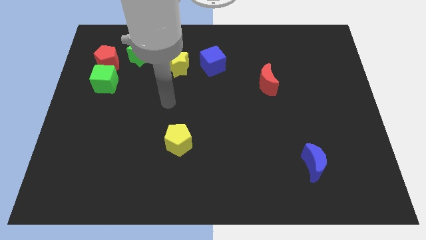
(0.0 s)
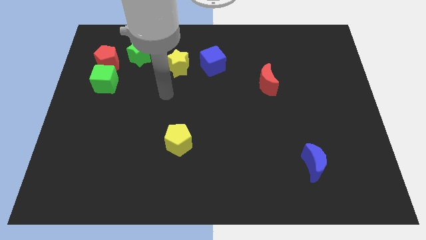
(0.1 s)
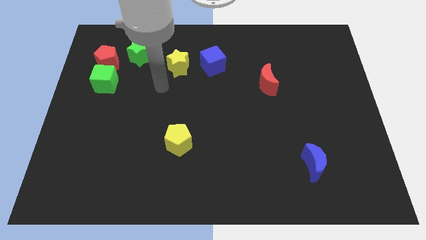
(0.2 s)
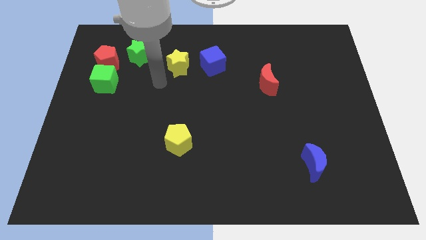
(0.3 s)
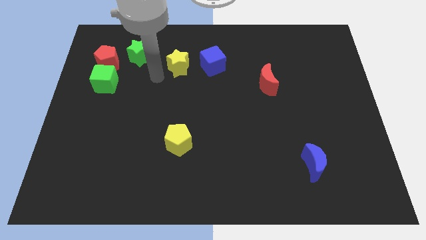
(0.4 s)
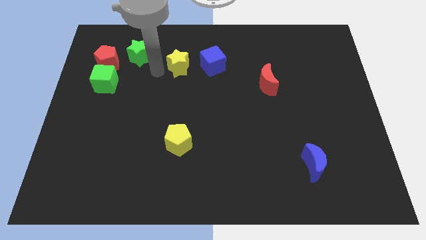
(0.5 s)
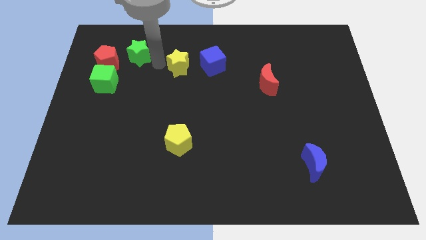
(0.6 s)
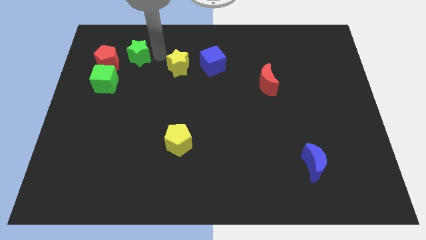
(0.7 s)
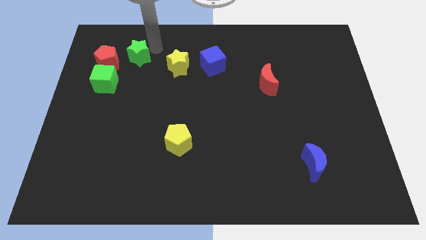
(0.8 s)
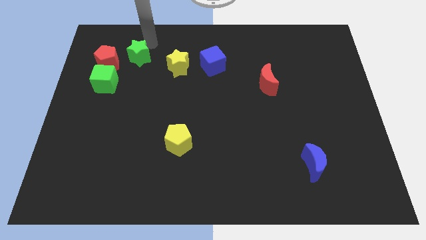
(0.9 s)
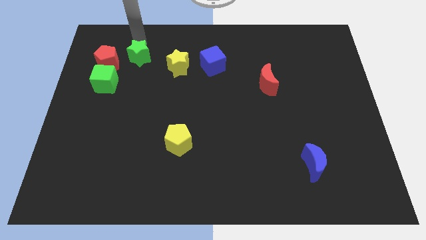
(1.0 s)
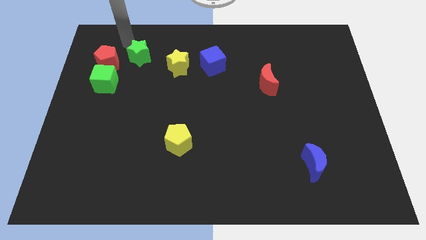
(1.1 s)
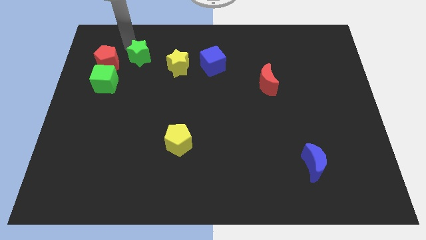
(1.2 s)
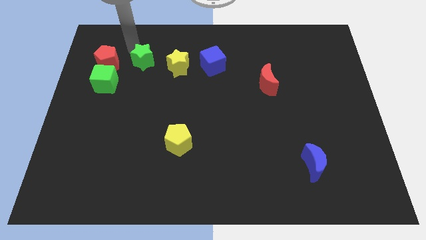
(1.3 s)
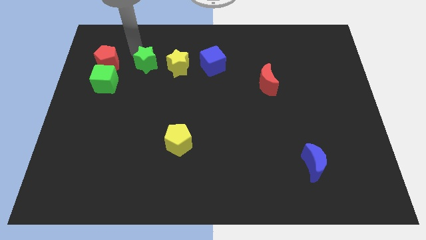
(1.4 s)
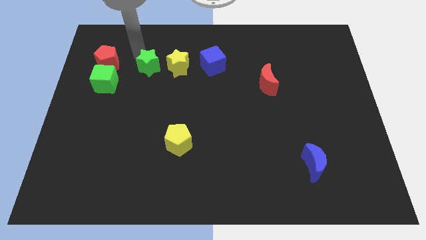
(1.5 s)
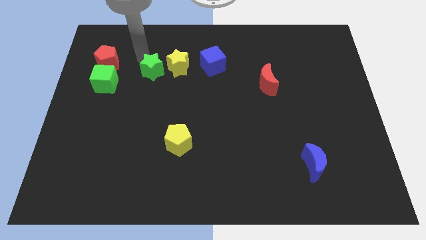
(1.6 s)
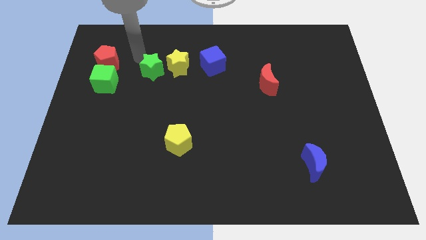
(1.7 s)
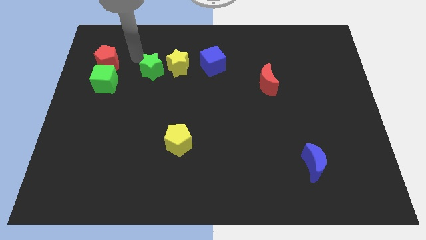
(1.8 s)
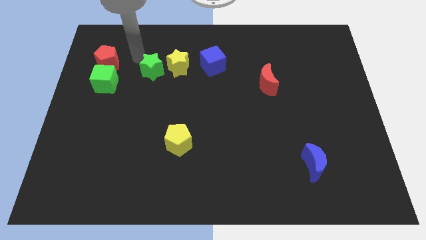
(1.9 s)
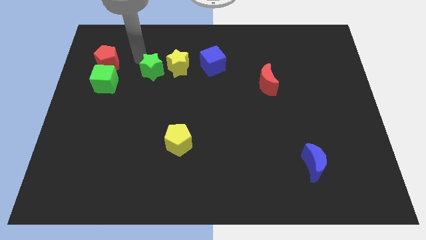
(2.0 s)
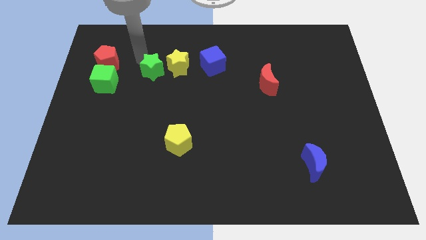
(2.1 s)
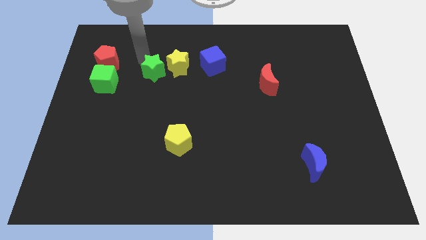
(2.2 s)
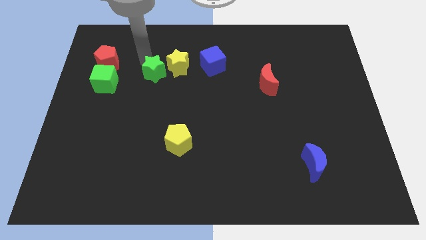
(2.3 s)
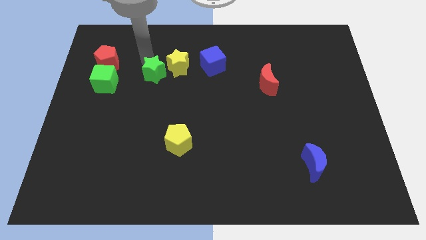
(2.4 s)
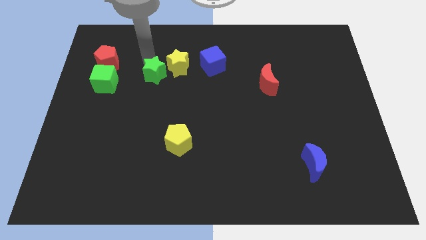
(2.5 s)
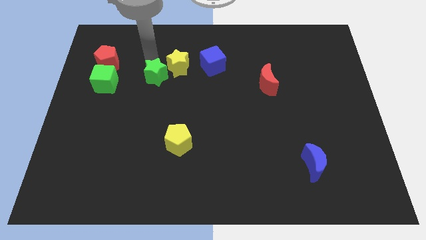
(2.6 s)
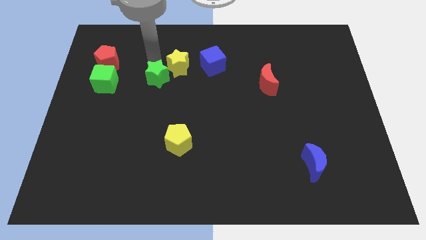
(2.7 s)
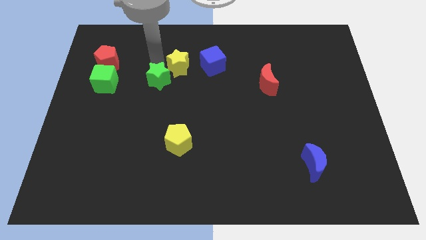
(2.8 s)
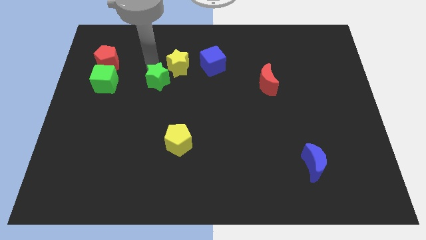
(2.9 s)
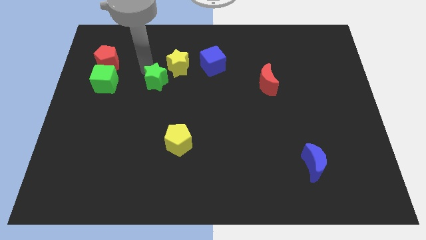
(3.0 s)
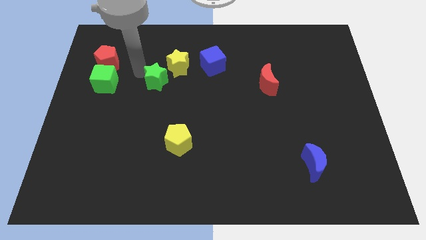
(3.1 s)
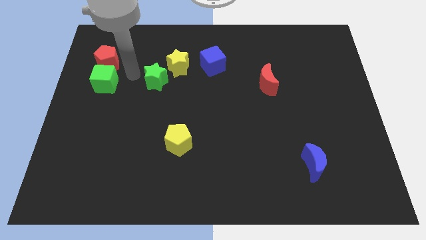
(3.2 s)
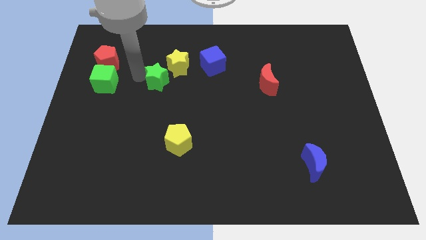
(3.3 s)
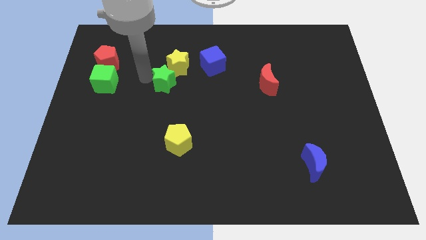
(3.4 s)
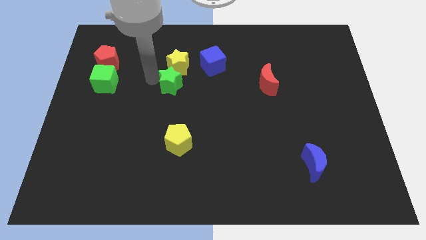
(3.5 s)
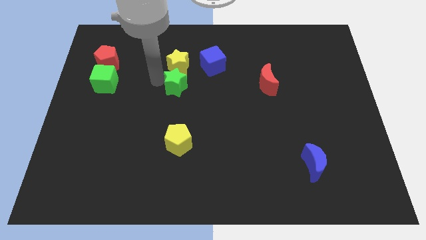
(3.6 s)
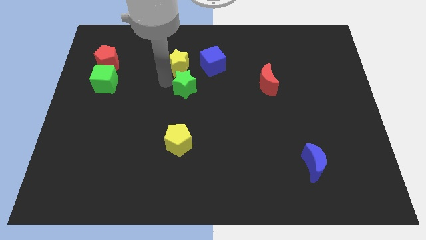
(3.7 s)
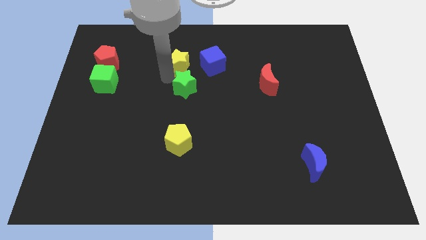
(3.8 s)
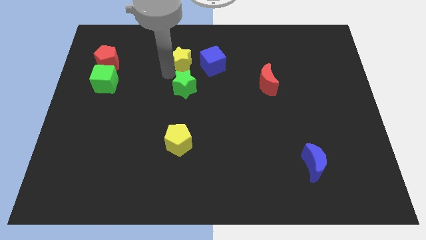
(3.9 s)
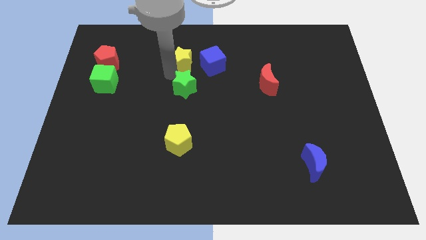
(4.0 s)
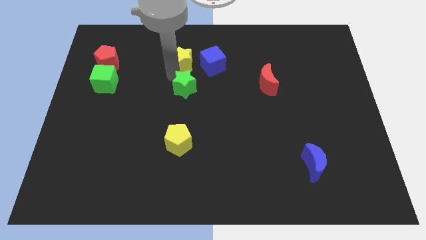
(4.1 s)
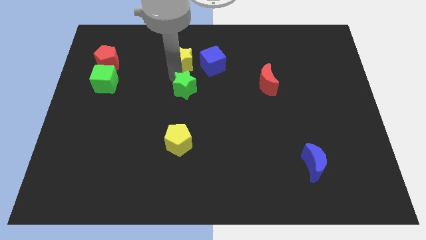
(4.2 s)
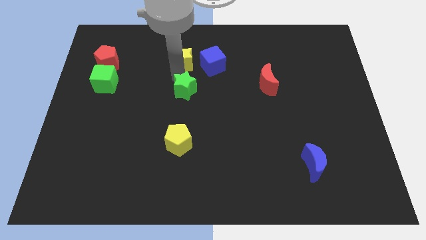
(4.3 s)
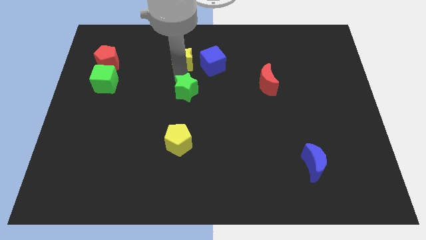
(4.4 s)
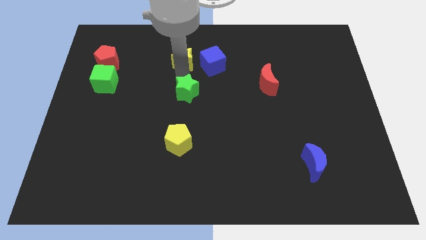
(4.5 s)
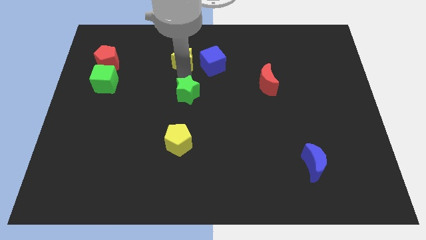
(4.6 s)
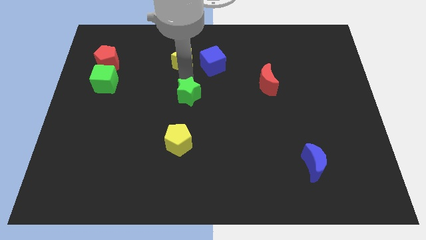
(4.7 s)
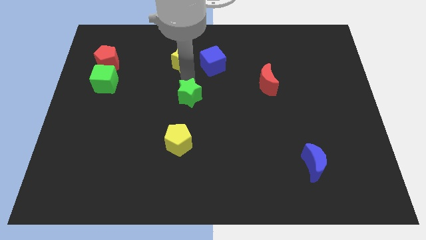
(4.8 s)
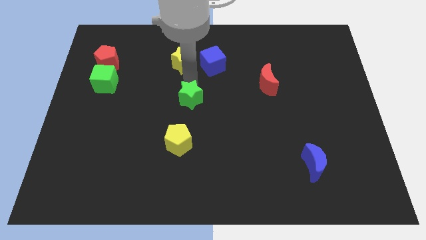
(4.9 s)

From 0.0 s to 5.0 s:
push the green star down and then to the right

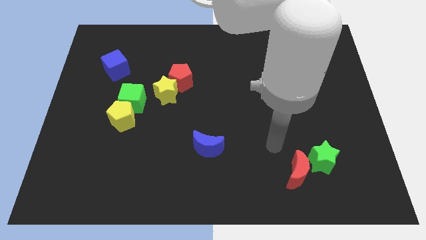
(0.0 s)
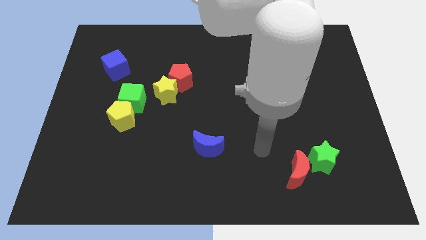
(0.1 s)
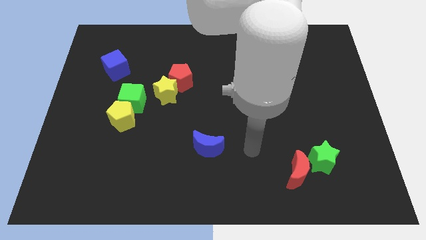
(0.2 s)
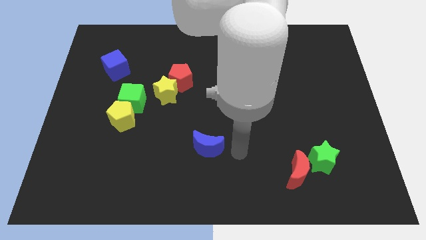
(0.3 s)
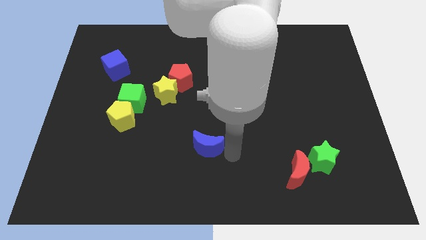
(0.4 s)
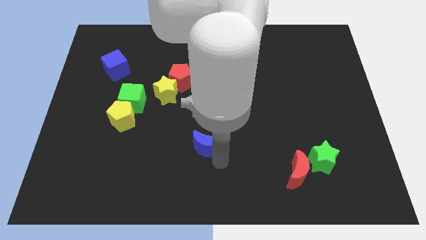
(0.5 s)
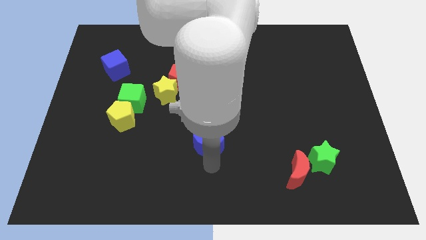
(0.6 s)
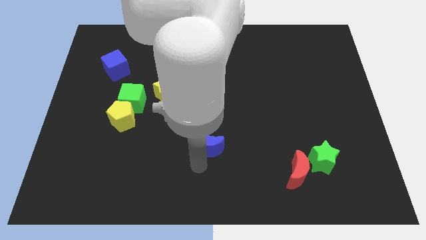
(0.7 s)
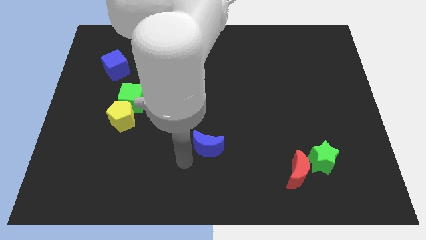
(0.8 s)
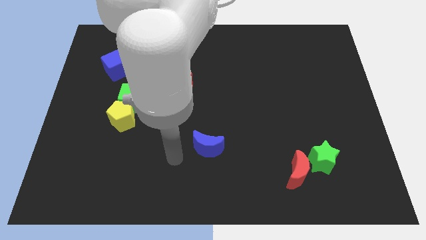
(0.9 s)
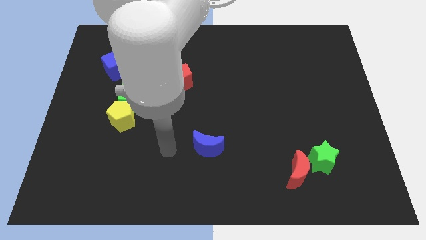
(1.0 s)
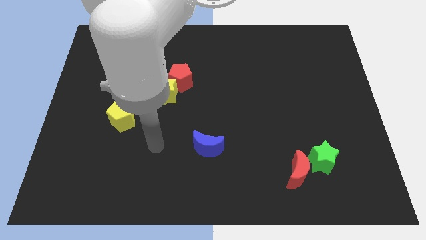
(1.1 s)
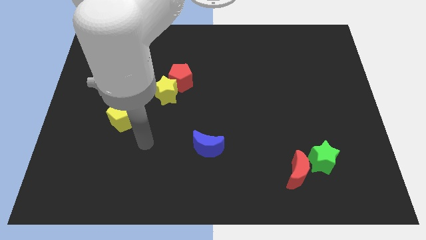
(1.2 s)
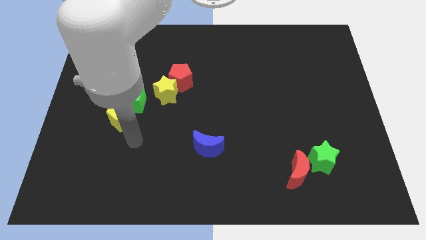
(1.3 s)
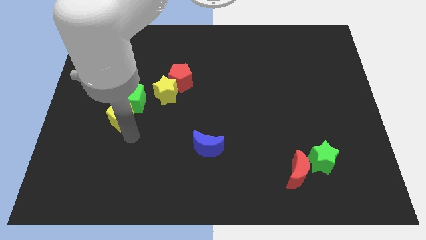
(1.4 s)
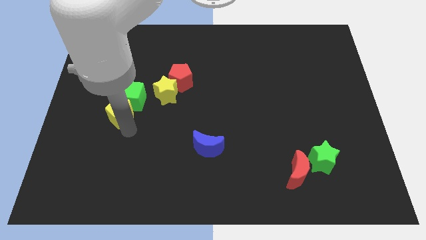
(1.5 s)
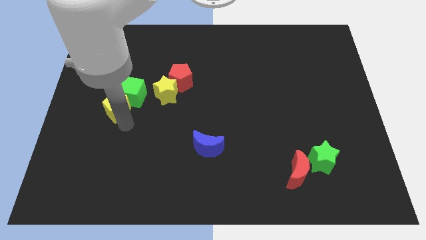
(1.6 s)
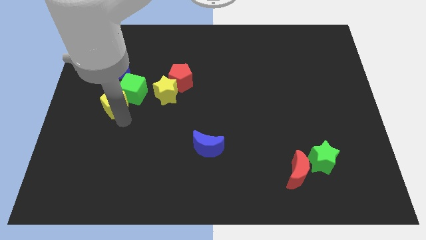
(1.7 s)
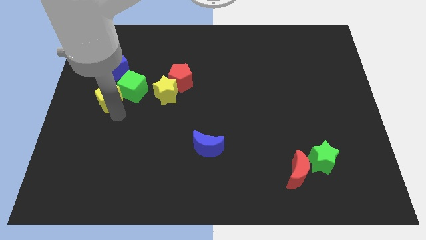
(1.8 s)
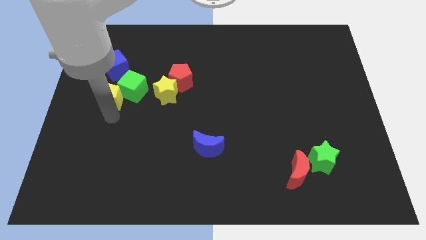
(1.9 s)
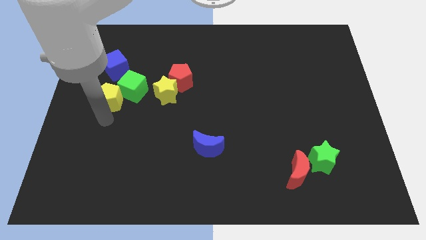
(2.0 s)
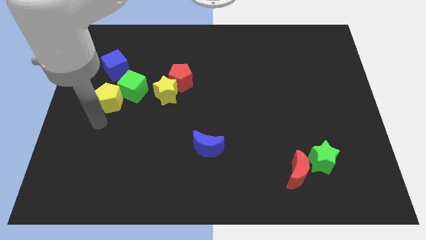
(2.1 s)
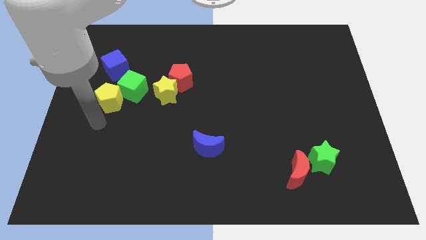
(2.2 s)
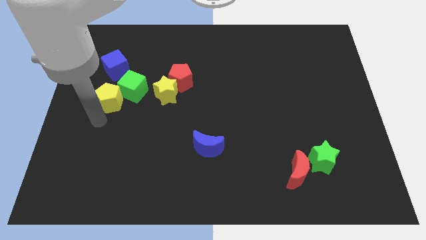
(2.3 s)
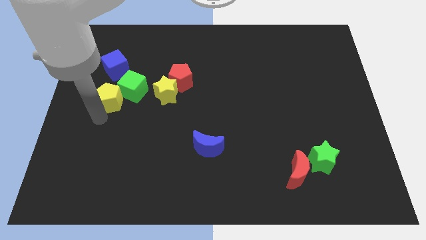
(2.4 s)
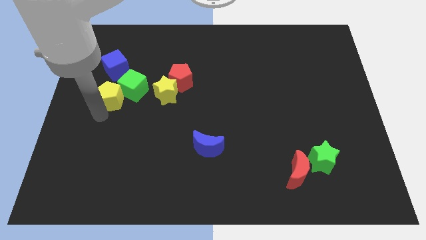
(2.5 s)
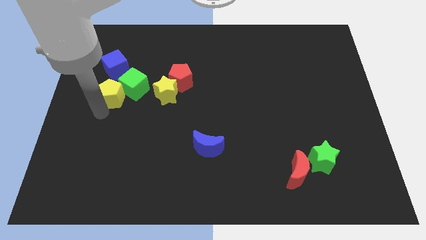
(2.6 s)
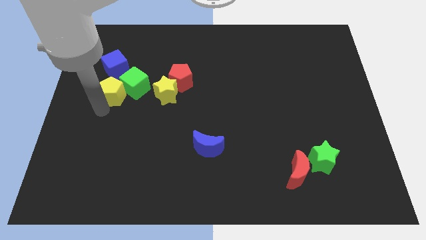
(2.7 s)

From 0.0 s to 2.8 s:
slightly slide the yellow pentagon upwards

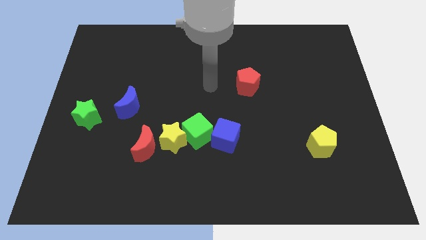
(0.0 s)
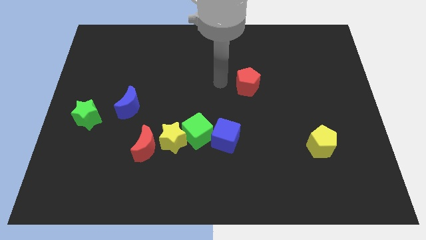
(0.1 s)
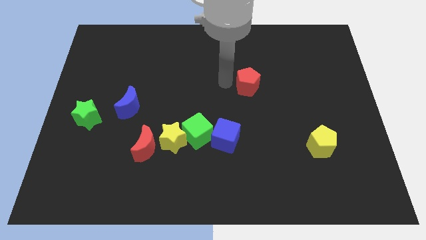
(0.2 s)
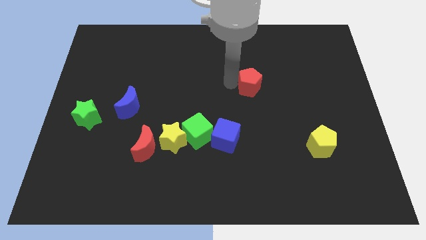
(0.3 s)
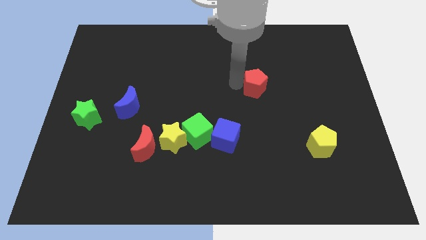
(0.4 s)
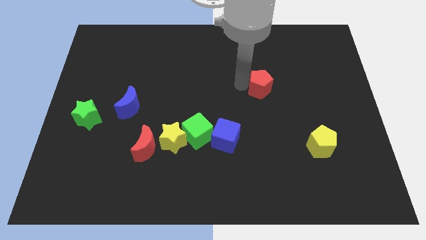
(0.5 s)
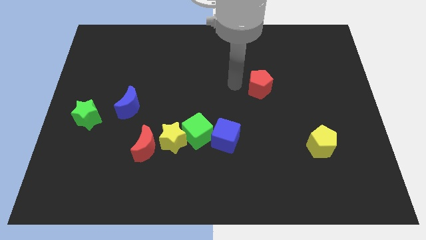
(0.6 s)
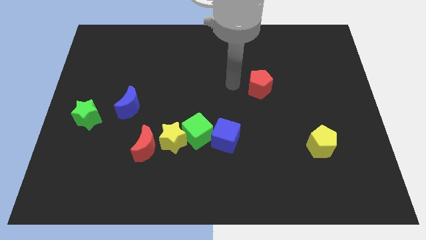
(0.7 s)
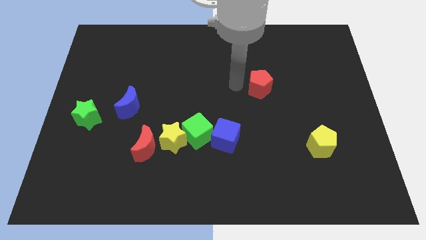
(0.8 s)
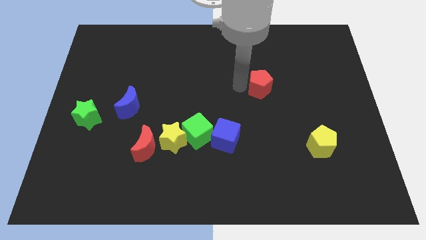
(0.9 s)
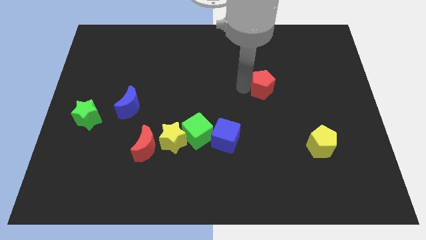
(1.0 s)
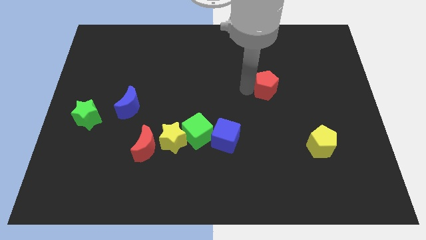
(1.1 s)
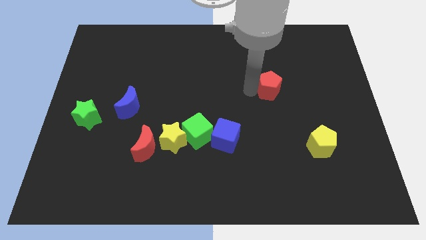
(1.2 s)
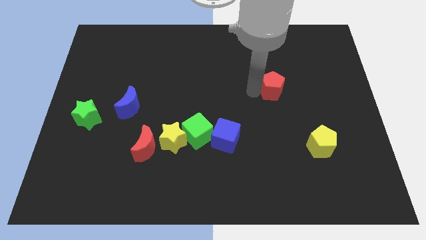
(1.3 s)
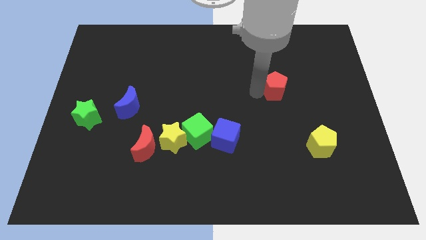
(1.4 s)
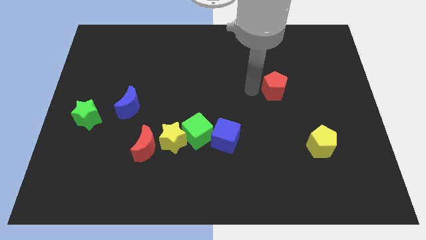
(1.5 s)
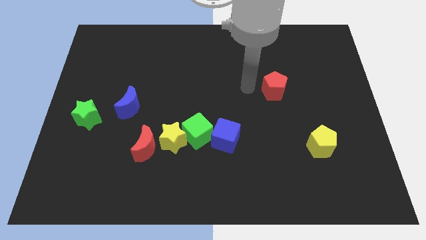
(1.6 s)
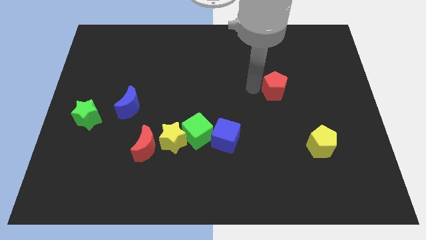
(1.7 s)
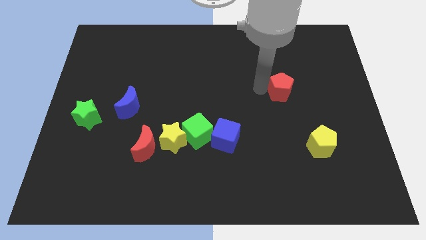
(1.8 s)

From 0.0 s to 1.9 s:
slightly move the red pentagon right
